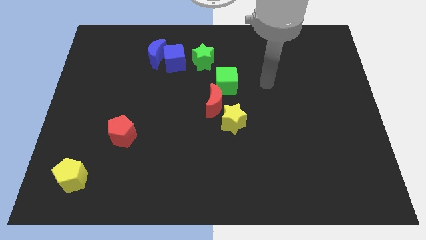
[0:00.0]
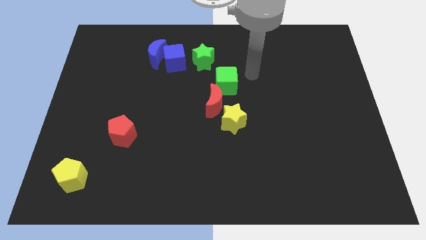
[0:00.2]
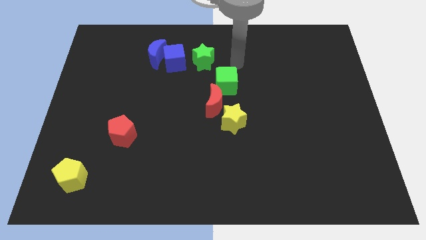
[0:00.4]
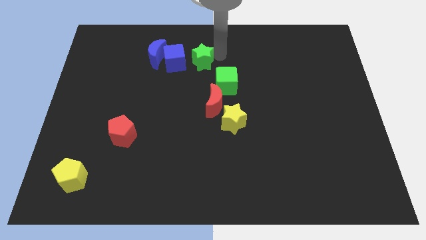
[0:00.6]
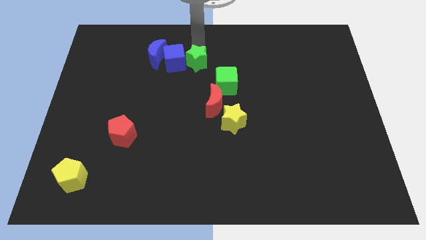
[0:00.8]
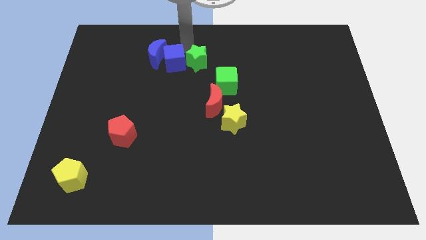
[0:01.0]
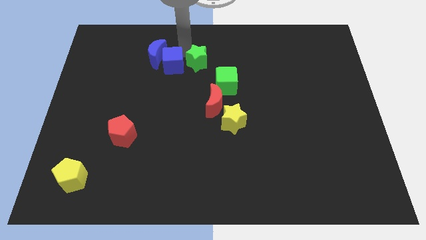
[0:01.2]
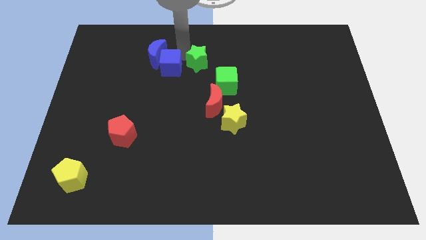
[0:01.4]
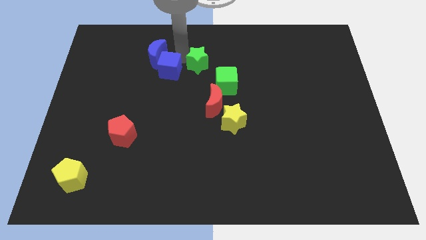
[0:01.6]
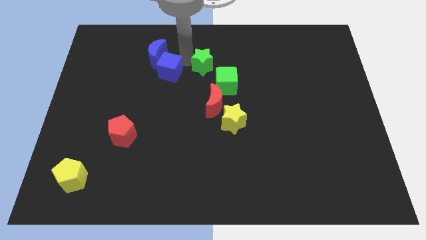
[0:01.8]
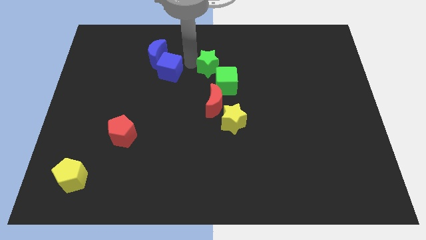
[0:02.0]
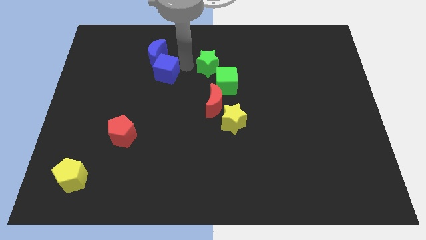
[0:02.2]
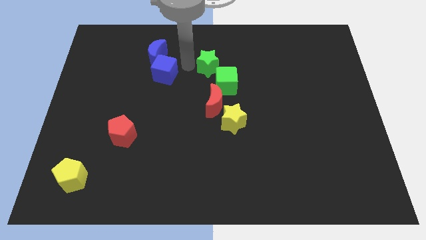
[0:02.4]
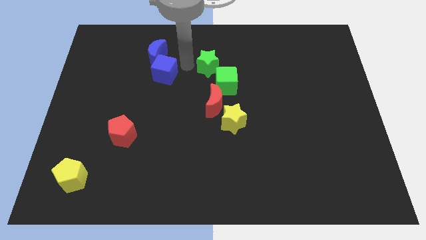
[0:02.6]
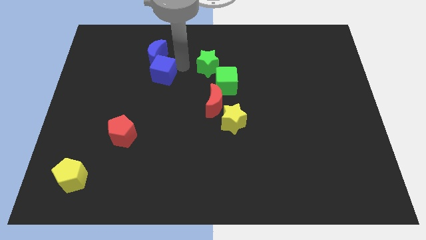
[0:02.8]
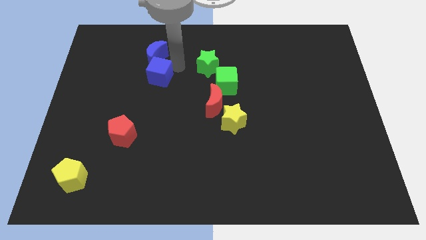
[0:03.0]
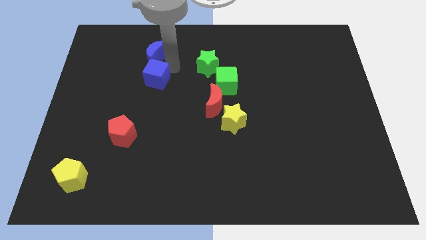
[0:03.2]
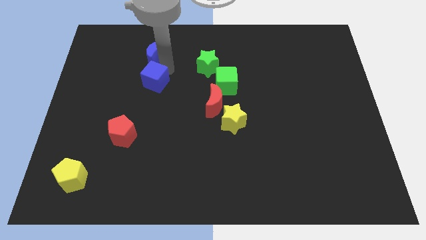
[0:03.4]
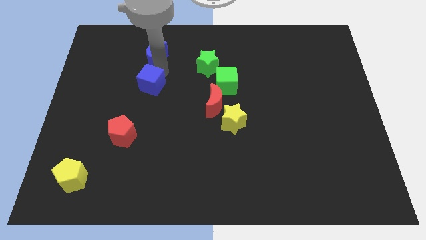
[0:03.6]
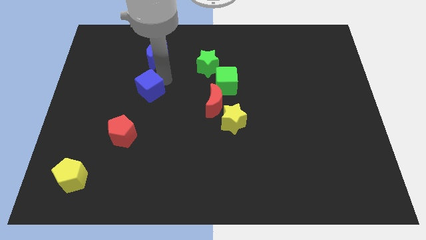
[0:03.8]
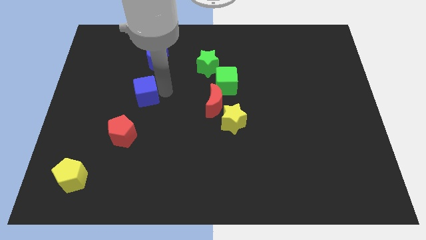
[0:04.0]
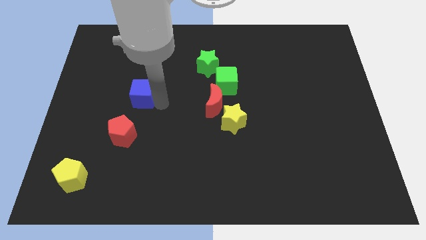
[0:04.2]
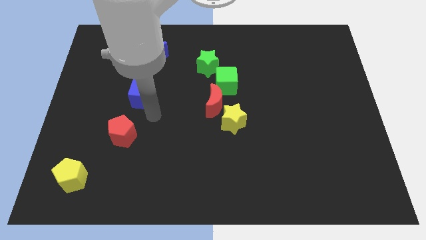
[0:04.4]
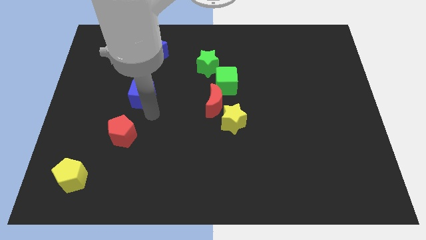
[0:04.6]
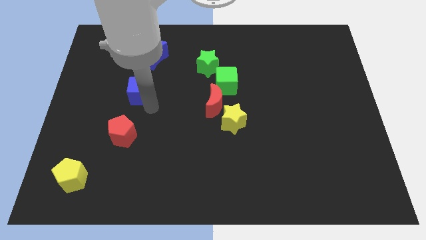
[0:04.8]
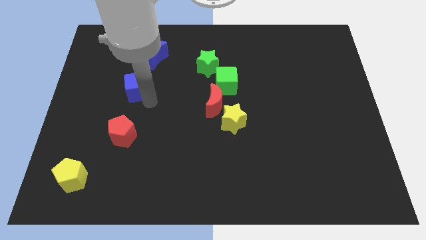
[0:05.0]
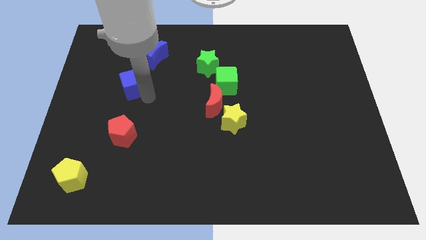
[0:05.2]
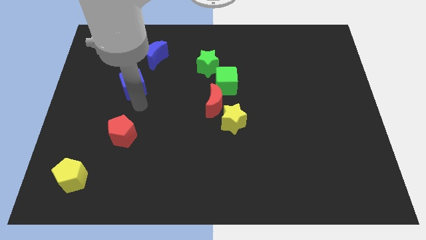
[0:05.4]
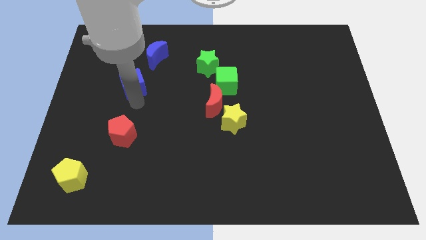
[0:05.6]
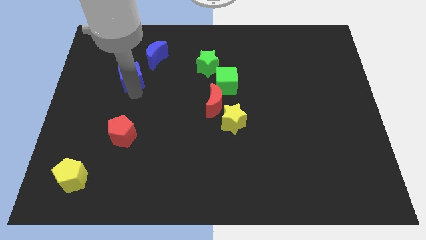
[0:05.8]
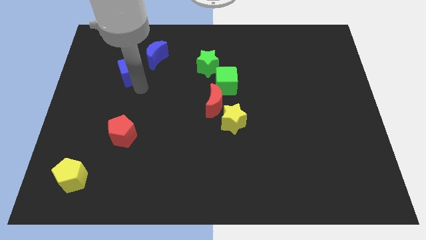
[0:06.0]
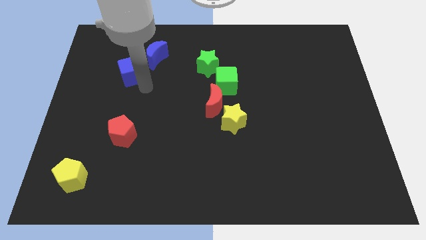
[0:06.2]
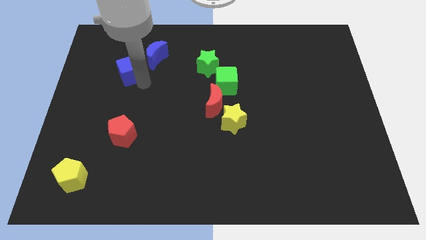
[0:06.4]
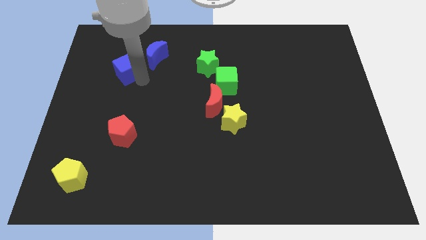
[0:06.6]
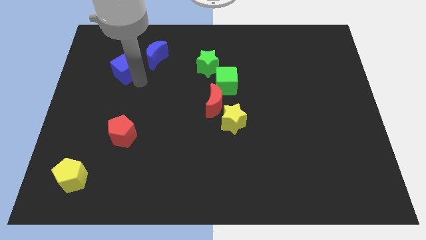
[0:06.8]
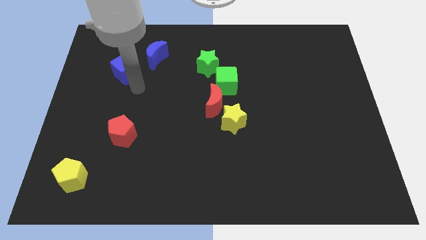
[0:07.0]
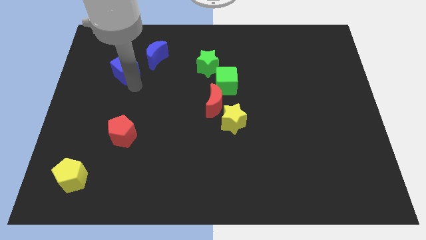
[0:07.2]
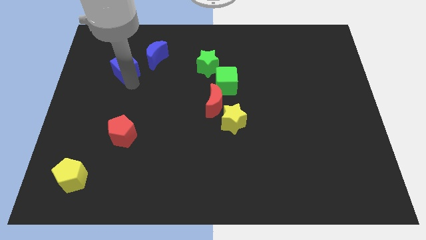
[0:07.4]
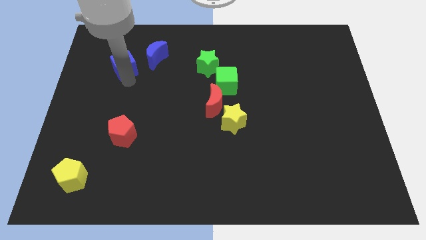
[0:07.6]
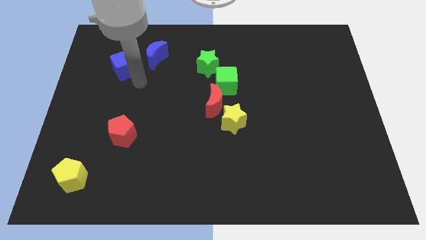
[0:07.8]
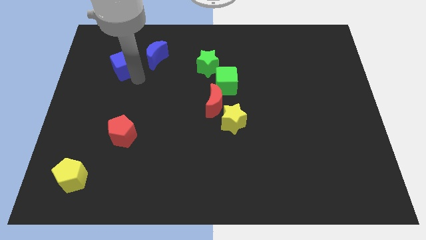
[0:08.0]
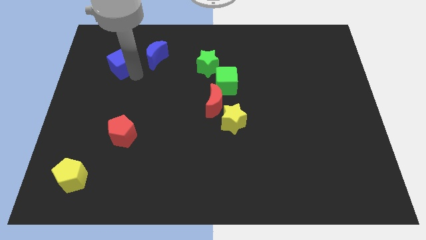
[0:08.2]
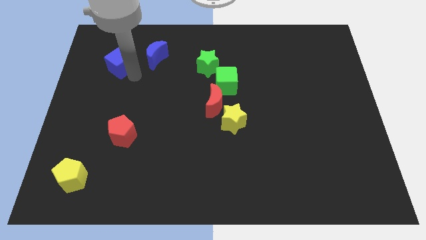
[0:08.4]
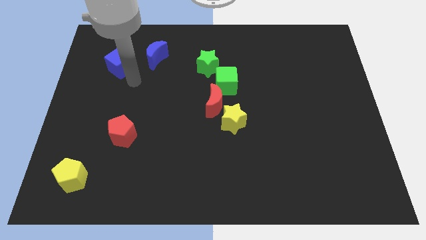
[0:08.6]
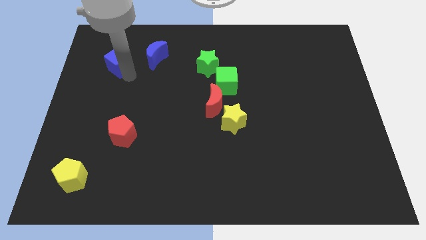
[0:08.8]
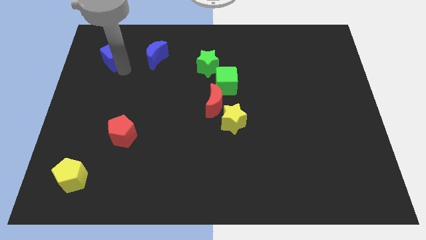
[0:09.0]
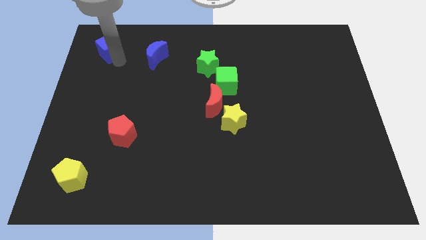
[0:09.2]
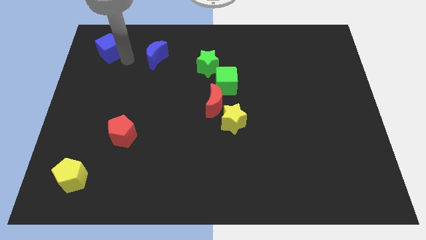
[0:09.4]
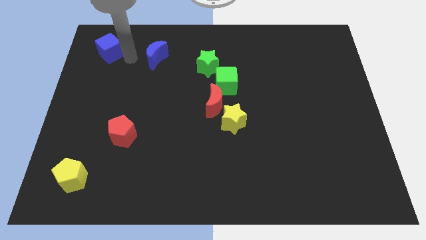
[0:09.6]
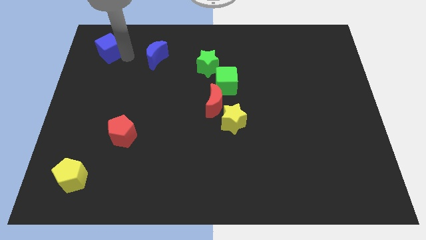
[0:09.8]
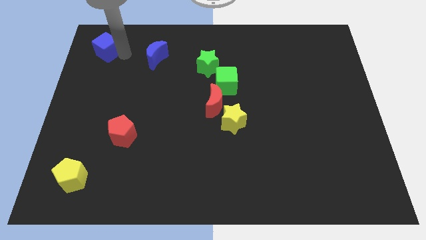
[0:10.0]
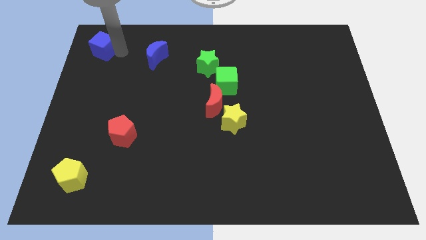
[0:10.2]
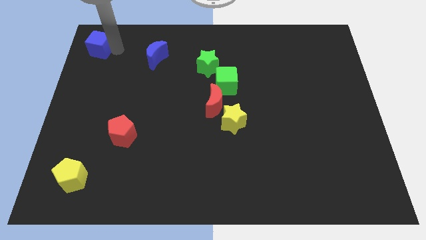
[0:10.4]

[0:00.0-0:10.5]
slide the blue cube to the top left of the board

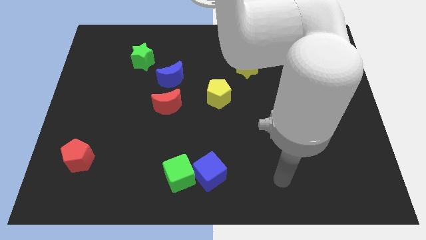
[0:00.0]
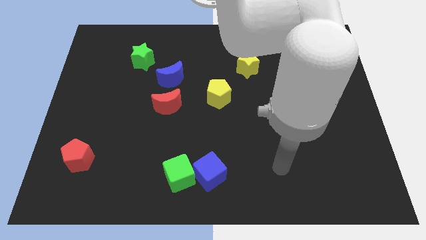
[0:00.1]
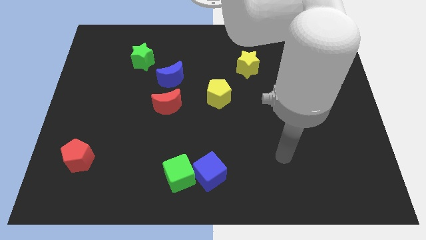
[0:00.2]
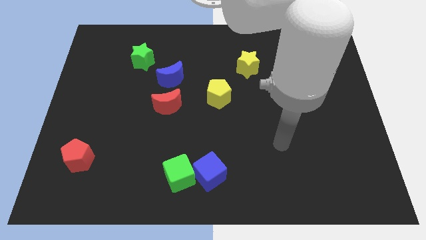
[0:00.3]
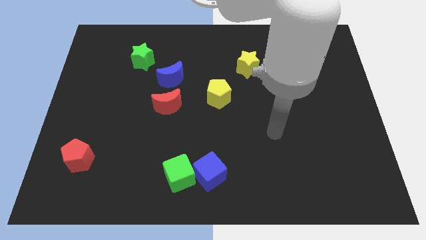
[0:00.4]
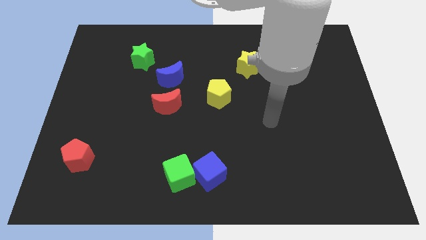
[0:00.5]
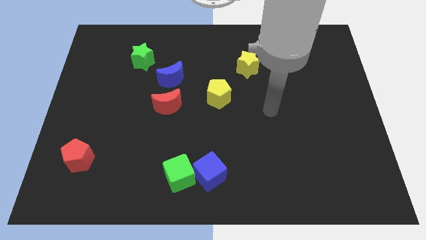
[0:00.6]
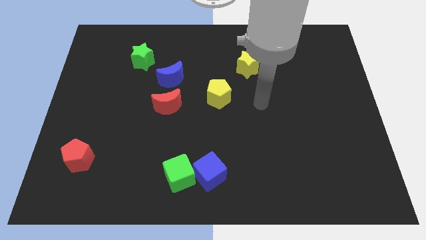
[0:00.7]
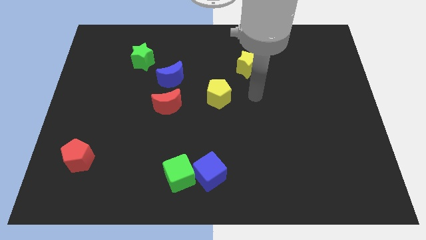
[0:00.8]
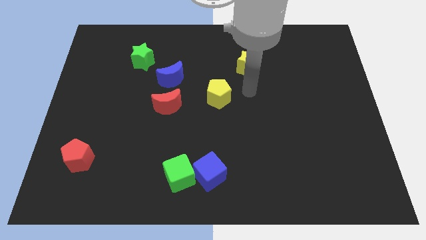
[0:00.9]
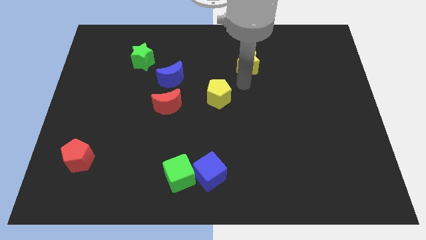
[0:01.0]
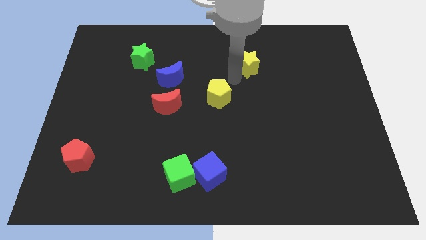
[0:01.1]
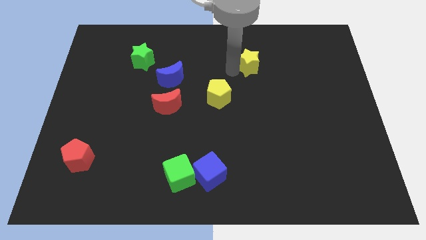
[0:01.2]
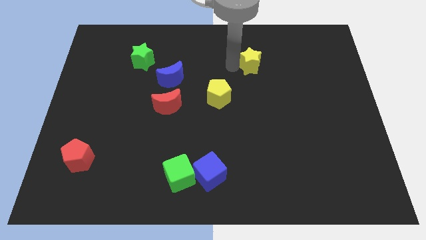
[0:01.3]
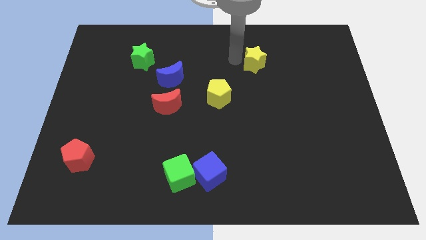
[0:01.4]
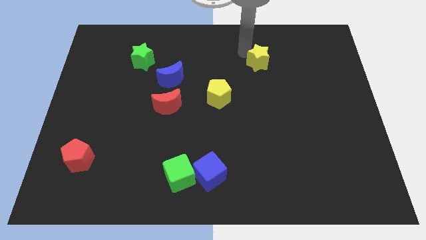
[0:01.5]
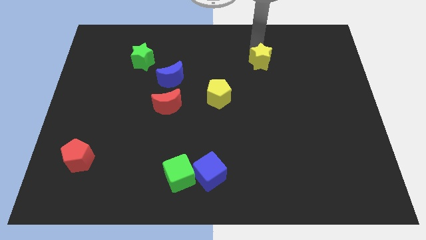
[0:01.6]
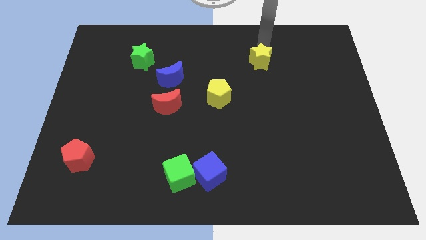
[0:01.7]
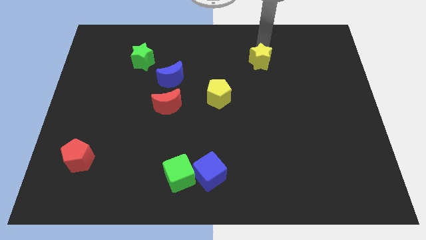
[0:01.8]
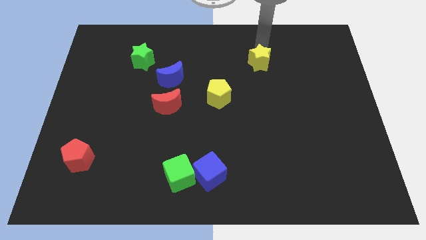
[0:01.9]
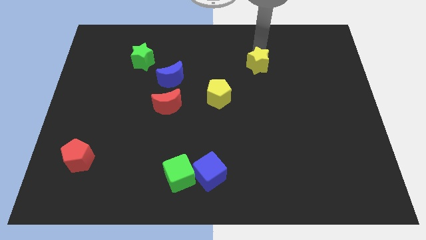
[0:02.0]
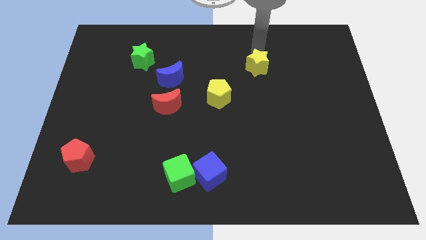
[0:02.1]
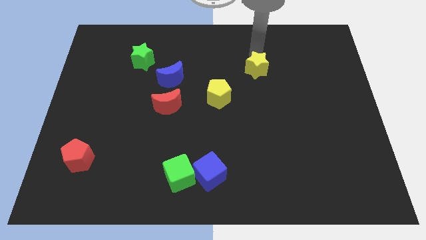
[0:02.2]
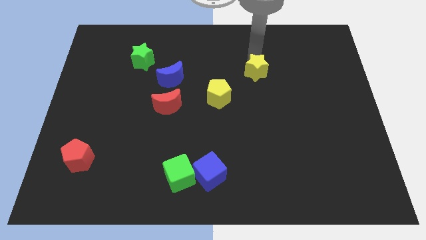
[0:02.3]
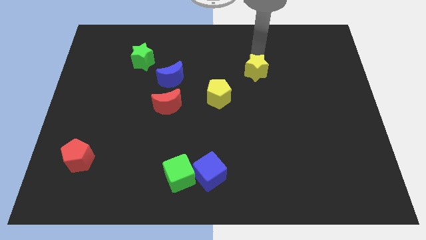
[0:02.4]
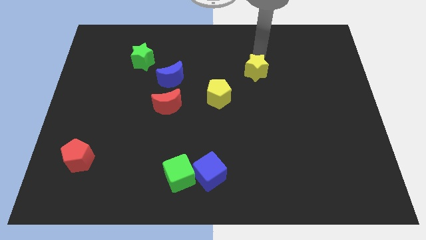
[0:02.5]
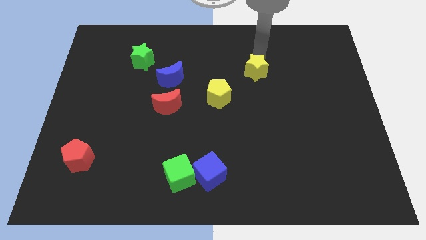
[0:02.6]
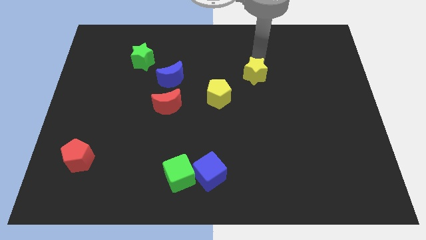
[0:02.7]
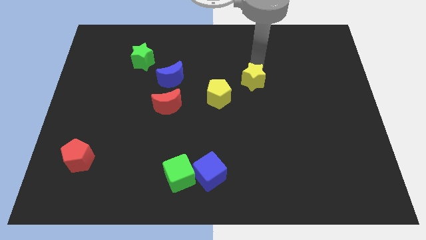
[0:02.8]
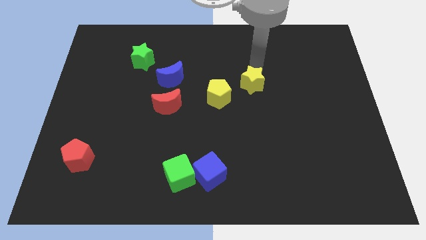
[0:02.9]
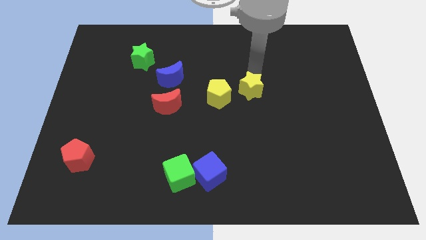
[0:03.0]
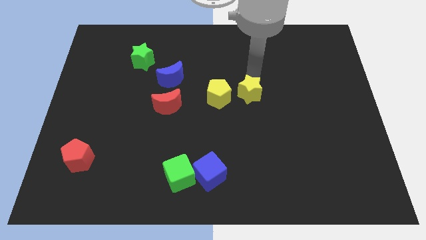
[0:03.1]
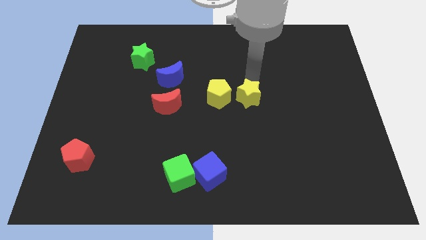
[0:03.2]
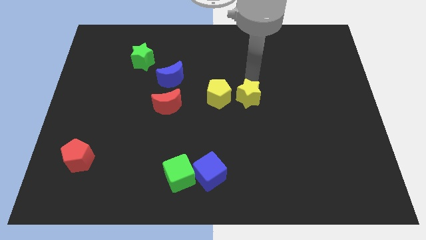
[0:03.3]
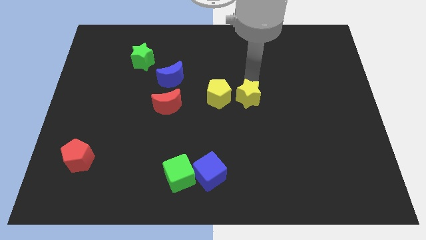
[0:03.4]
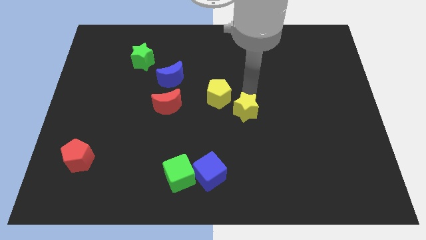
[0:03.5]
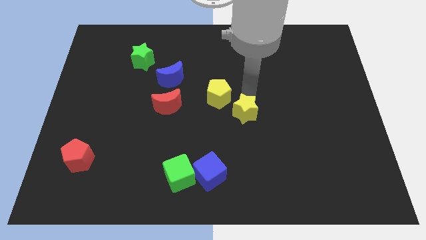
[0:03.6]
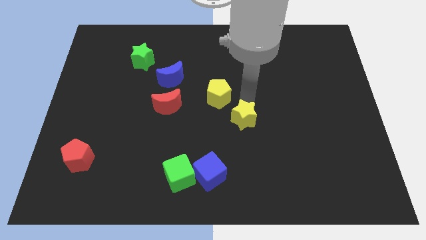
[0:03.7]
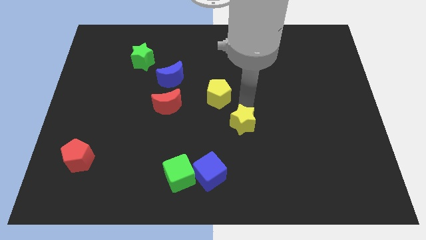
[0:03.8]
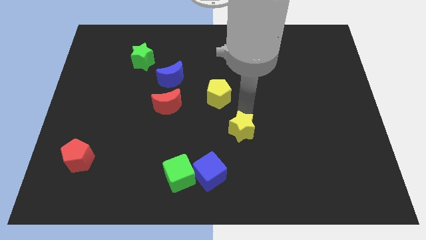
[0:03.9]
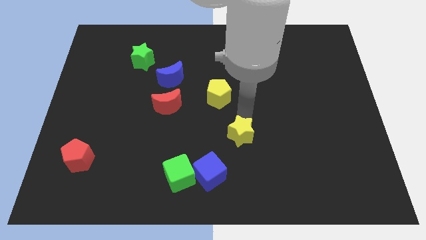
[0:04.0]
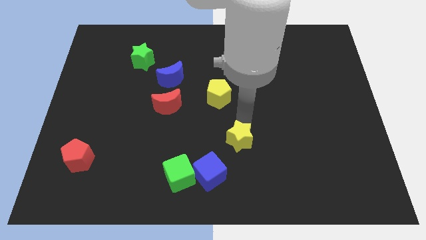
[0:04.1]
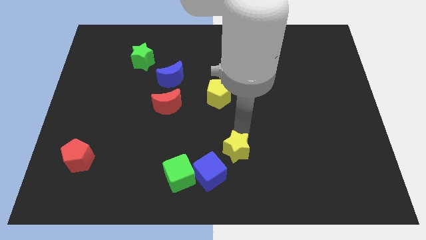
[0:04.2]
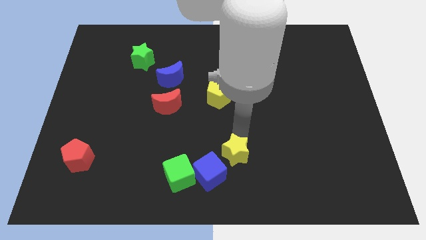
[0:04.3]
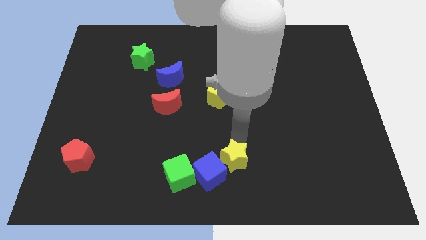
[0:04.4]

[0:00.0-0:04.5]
push the yellow star to the bottom
